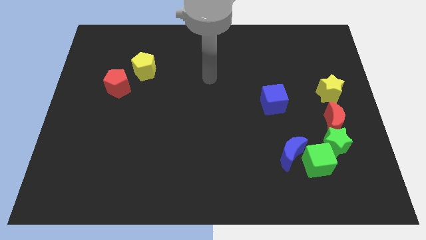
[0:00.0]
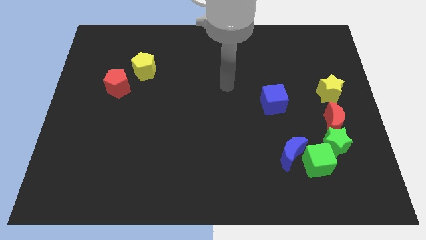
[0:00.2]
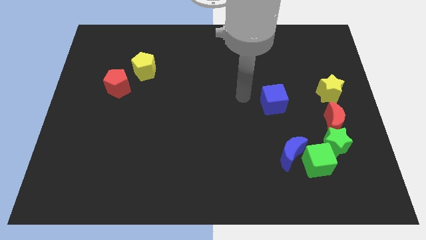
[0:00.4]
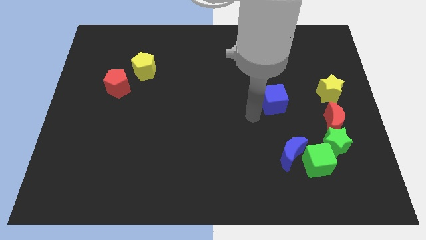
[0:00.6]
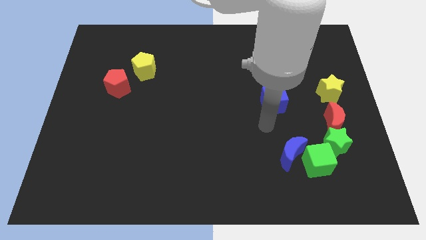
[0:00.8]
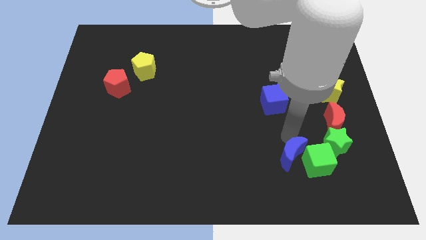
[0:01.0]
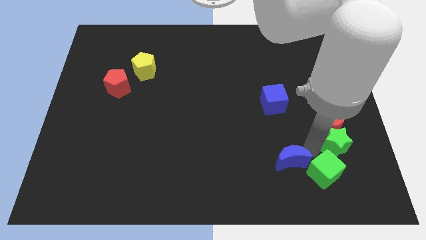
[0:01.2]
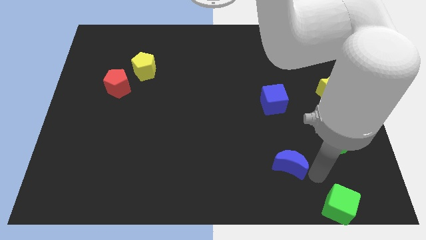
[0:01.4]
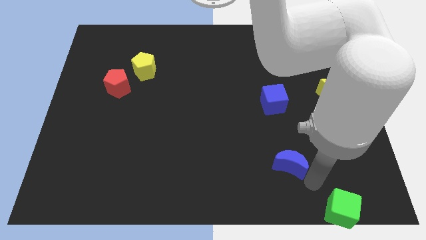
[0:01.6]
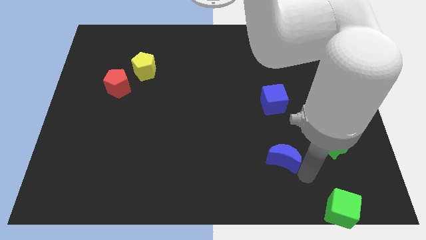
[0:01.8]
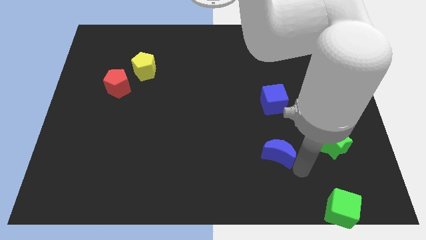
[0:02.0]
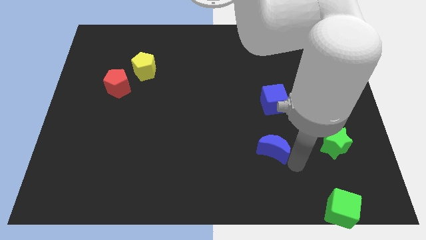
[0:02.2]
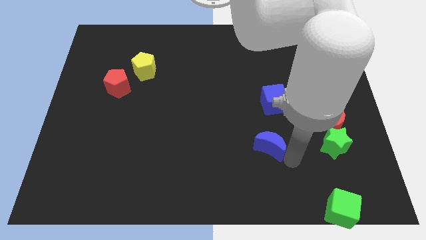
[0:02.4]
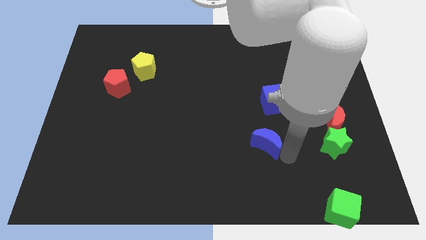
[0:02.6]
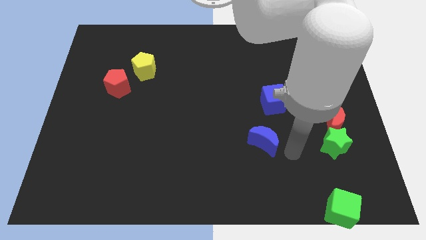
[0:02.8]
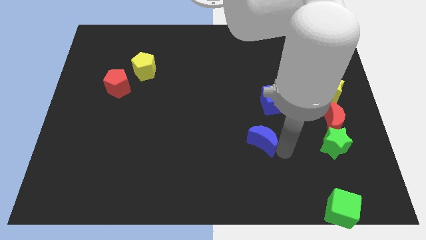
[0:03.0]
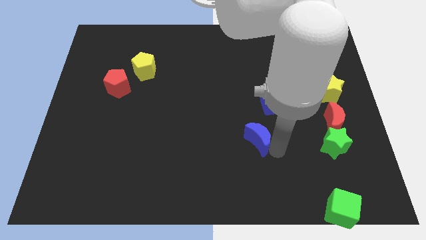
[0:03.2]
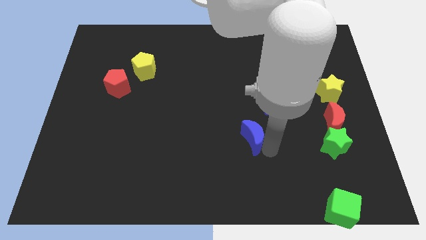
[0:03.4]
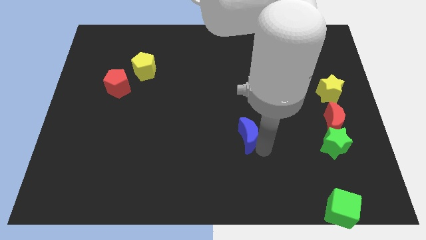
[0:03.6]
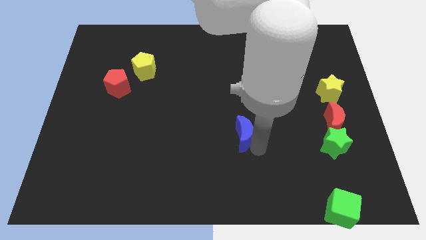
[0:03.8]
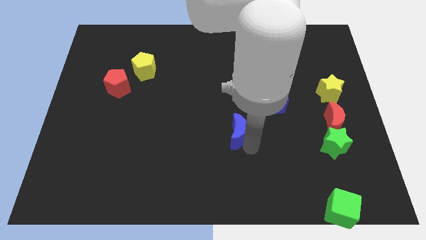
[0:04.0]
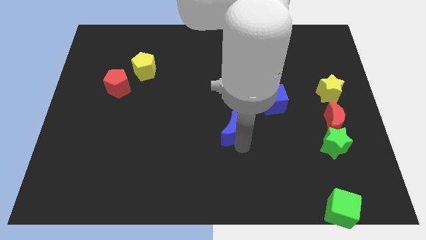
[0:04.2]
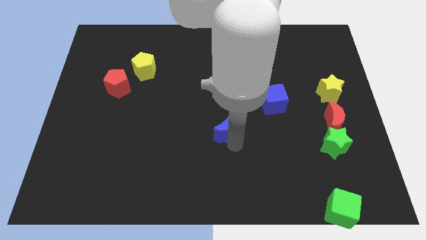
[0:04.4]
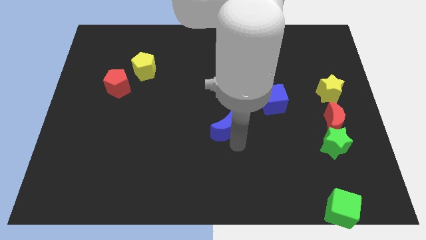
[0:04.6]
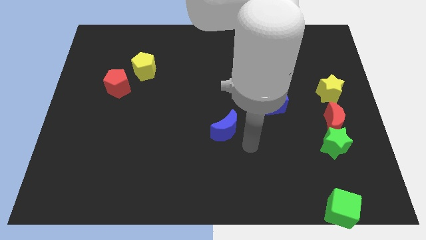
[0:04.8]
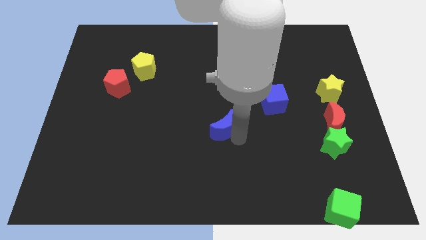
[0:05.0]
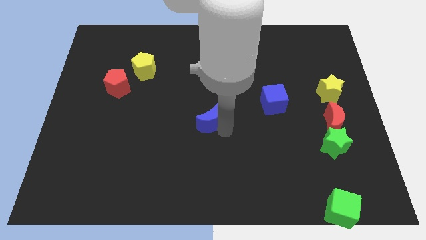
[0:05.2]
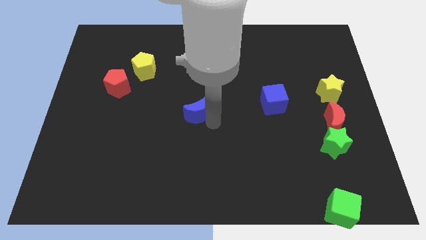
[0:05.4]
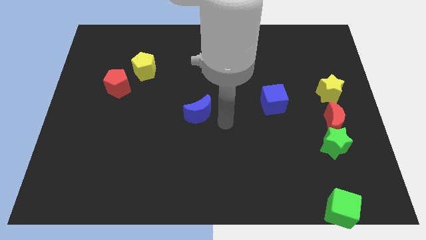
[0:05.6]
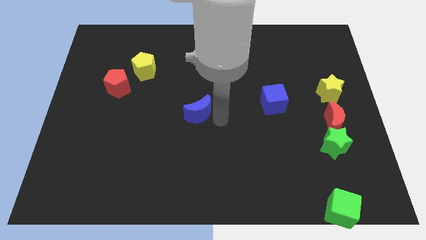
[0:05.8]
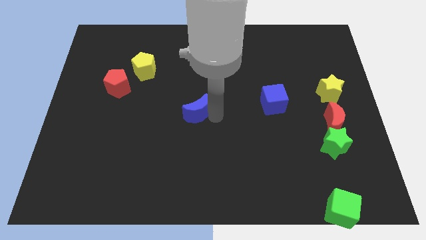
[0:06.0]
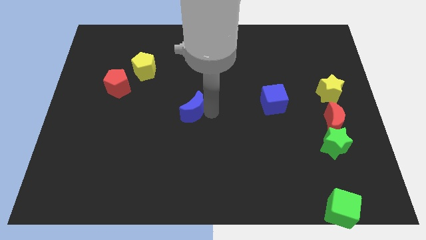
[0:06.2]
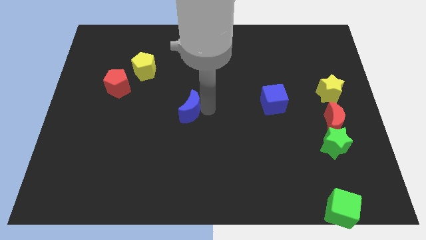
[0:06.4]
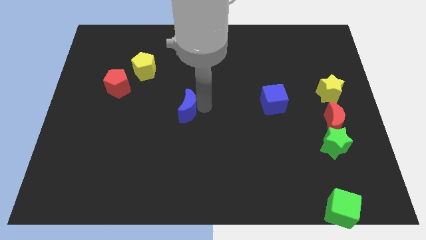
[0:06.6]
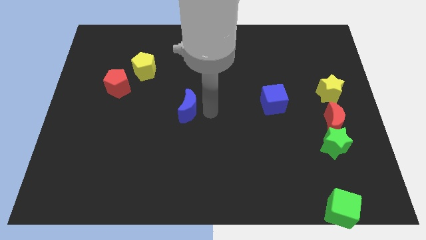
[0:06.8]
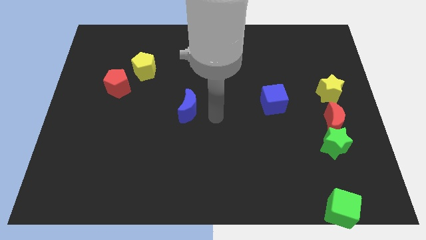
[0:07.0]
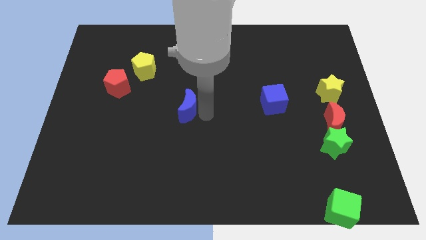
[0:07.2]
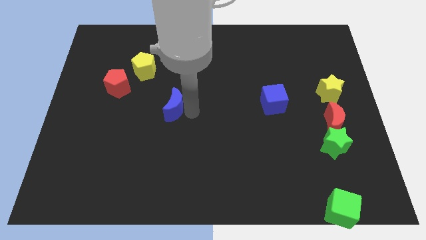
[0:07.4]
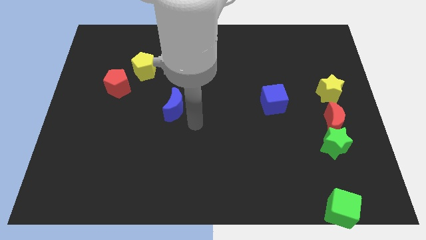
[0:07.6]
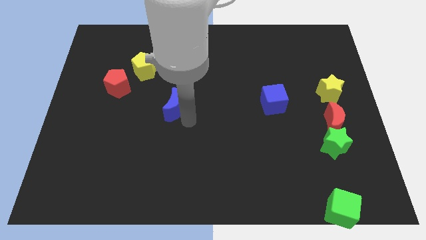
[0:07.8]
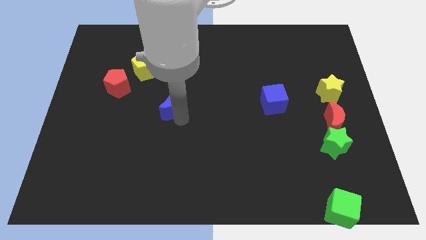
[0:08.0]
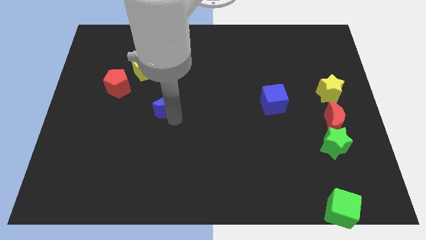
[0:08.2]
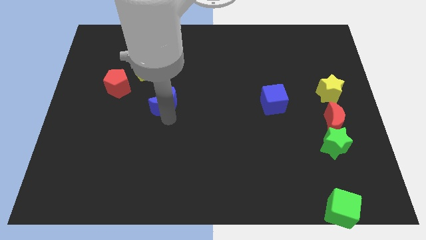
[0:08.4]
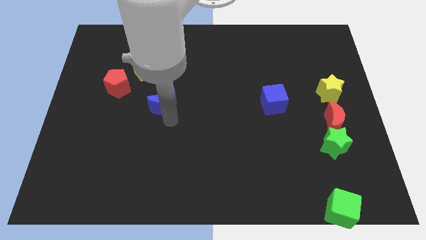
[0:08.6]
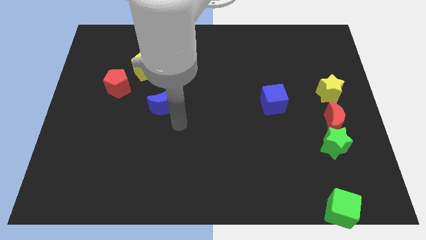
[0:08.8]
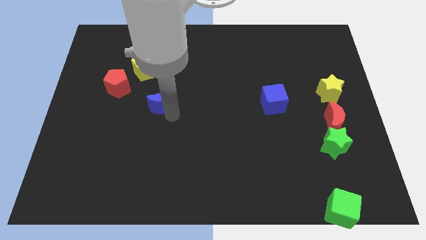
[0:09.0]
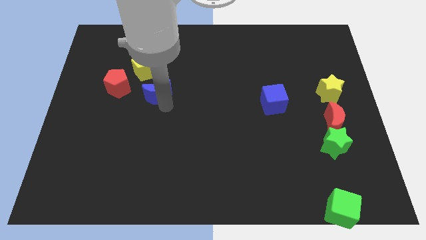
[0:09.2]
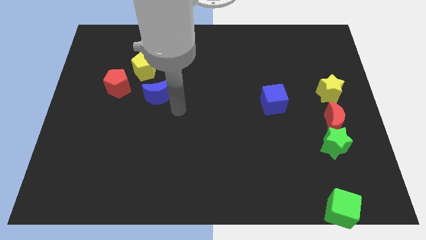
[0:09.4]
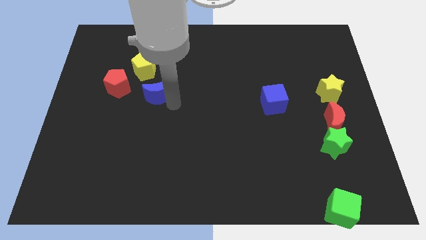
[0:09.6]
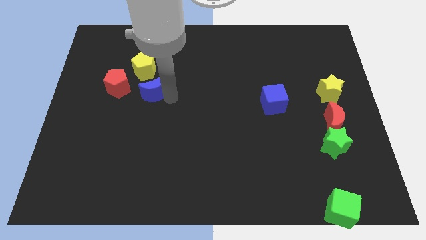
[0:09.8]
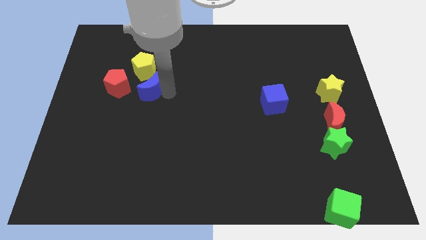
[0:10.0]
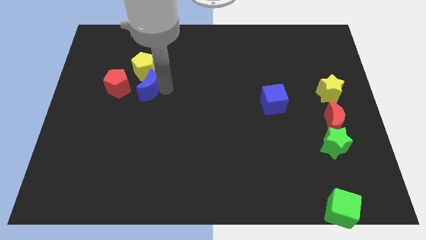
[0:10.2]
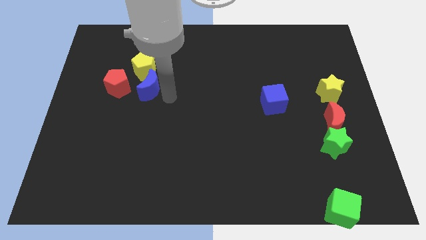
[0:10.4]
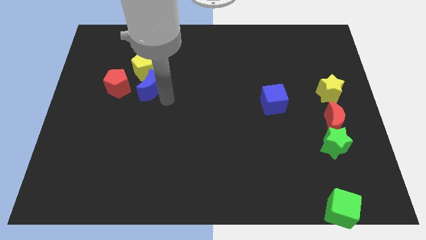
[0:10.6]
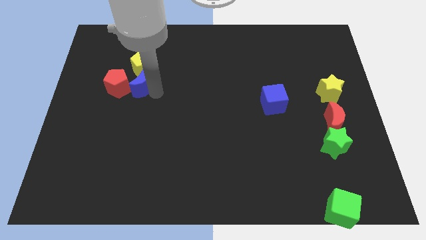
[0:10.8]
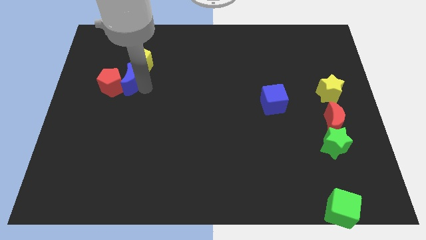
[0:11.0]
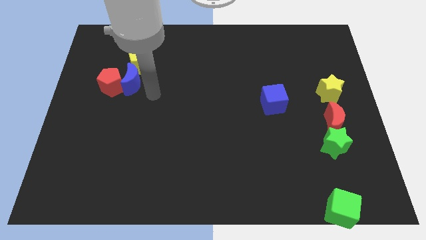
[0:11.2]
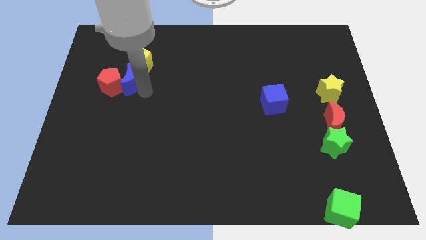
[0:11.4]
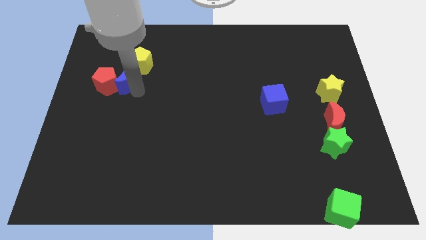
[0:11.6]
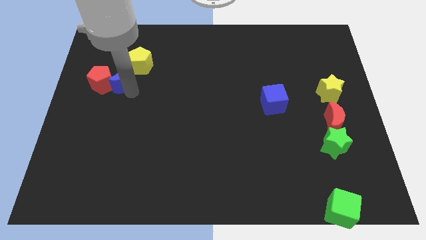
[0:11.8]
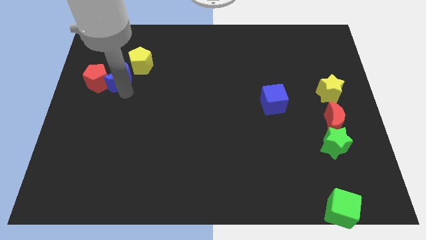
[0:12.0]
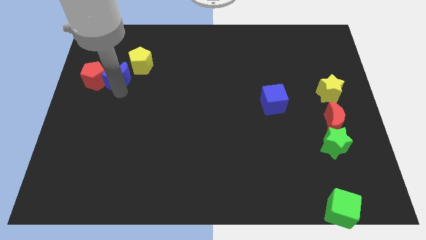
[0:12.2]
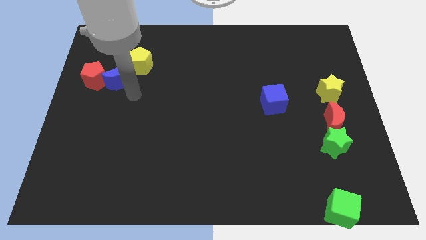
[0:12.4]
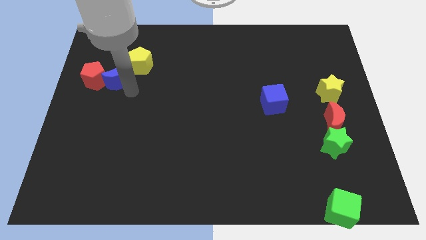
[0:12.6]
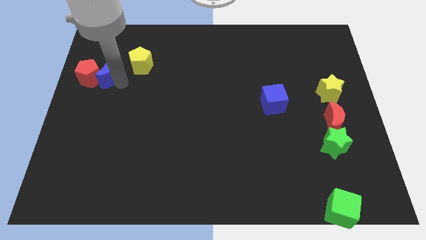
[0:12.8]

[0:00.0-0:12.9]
push the blue moon to the left of the yellow pentagon

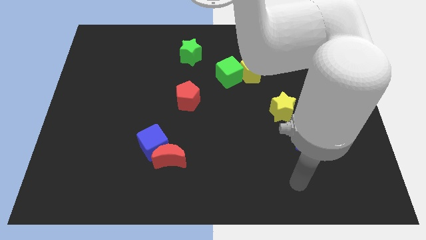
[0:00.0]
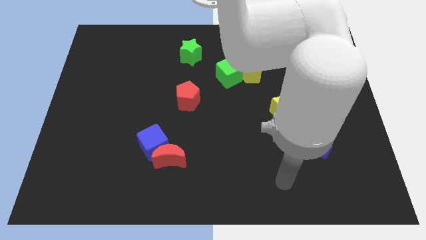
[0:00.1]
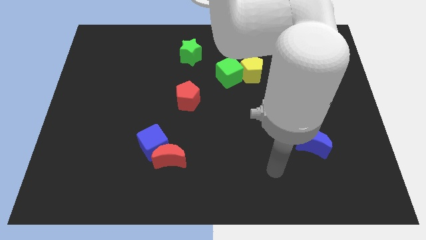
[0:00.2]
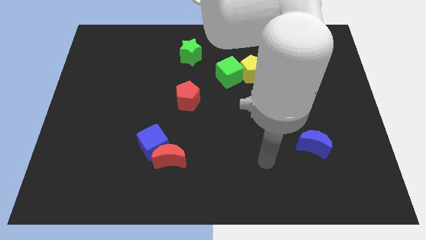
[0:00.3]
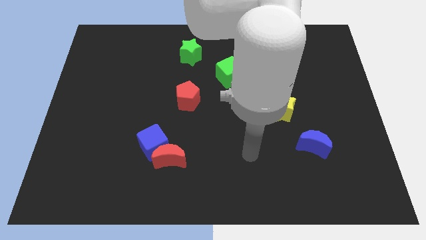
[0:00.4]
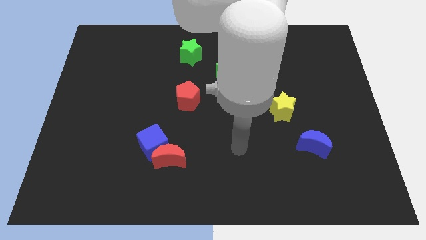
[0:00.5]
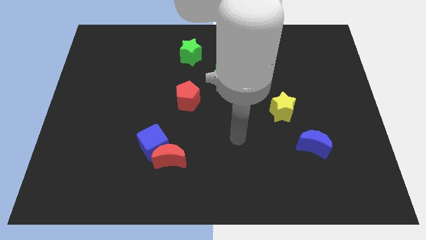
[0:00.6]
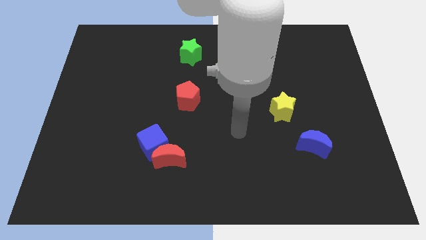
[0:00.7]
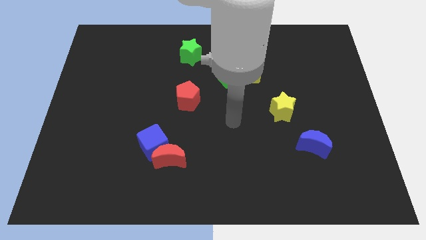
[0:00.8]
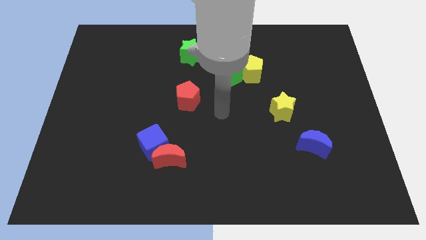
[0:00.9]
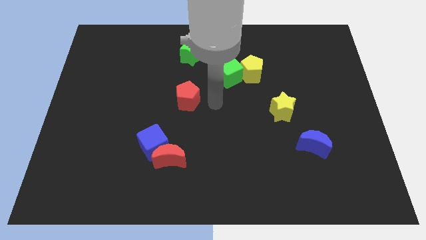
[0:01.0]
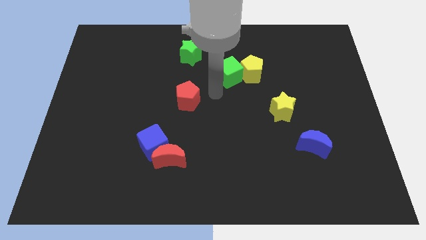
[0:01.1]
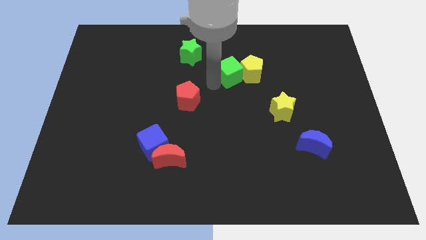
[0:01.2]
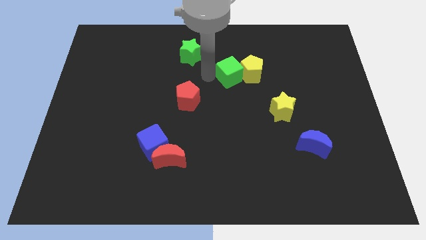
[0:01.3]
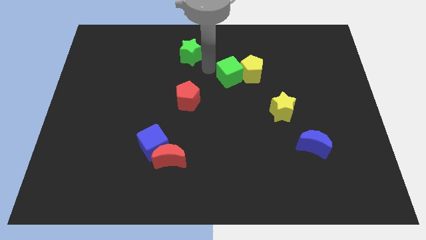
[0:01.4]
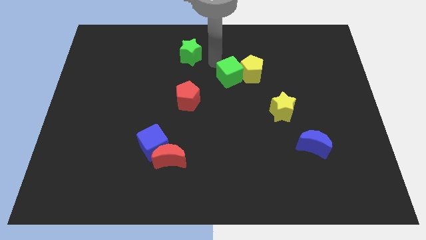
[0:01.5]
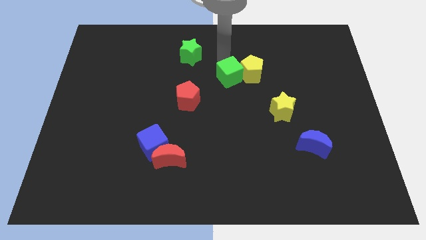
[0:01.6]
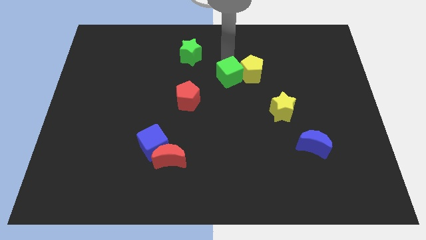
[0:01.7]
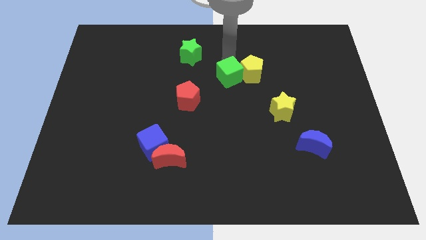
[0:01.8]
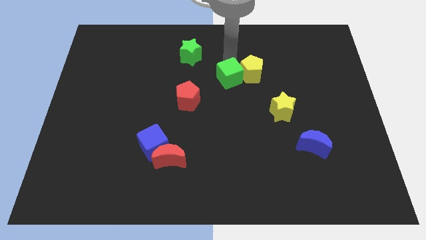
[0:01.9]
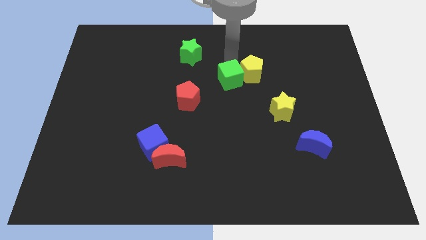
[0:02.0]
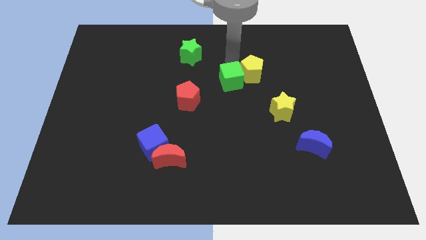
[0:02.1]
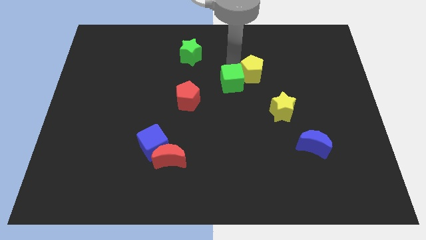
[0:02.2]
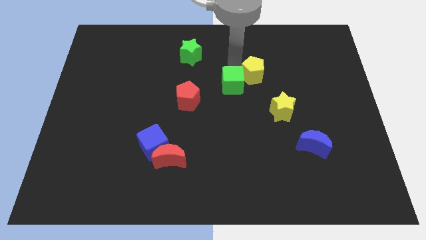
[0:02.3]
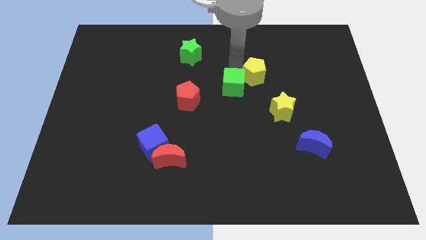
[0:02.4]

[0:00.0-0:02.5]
move the green cube to the right of the red pentagon
